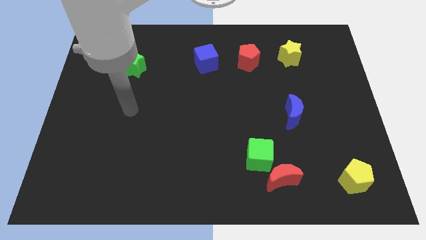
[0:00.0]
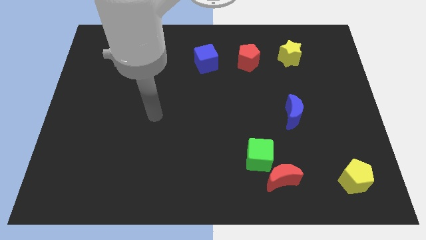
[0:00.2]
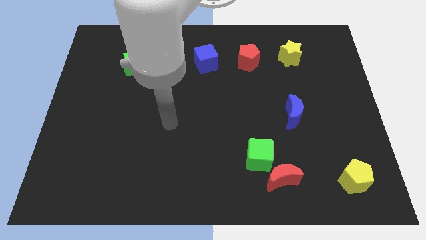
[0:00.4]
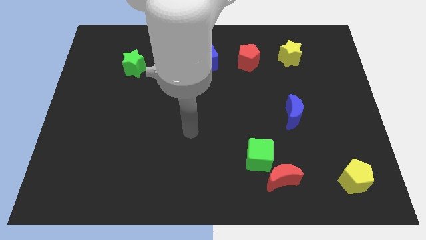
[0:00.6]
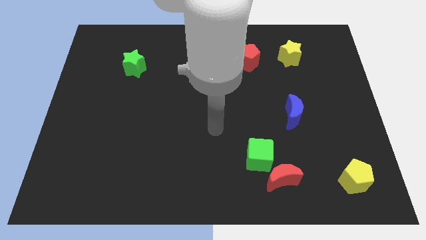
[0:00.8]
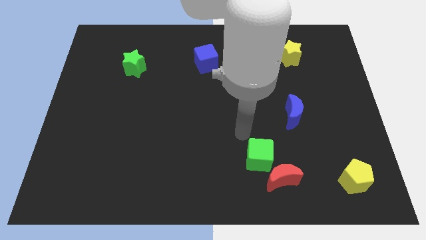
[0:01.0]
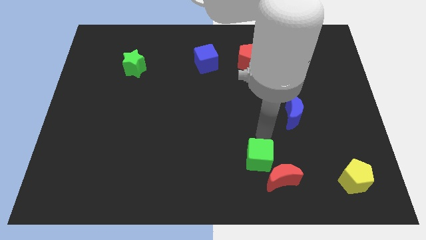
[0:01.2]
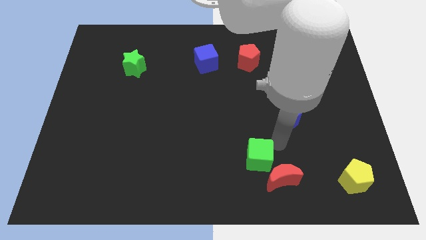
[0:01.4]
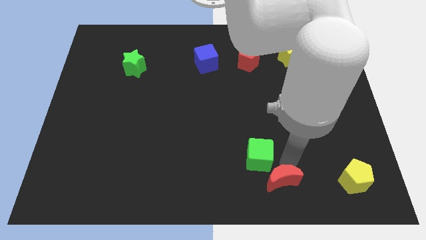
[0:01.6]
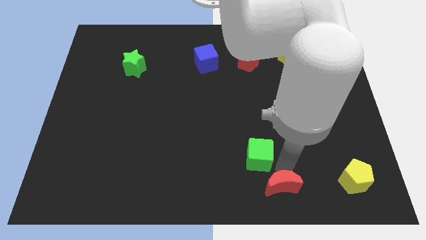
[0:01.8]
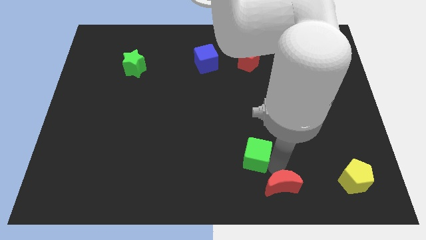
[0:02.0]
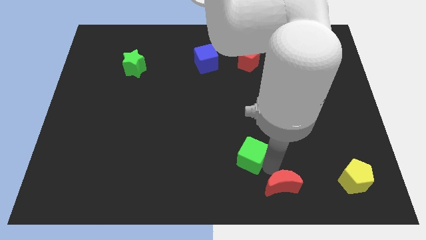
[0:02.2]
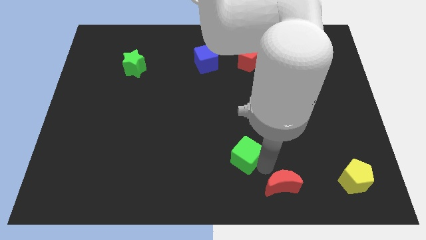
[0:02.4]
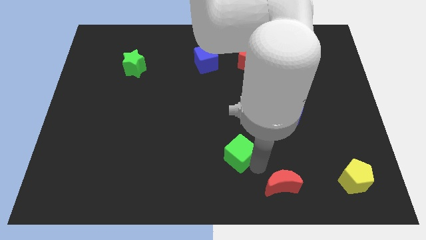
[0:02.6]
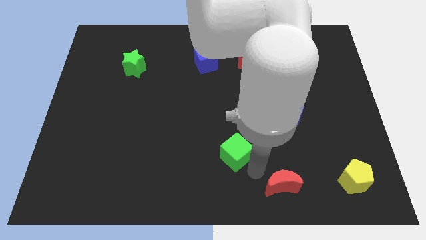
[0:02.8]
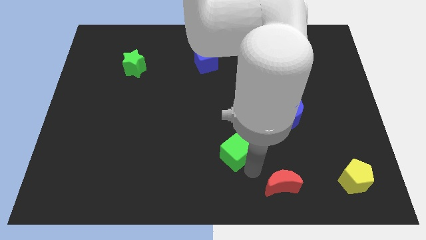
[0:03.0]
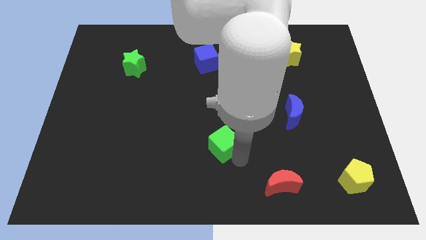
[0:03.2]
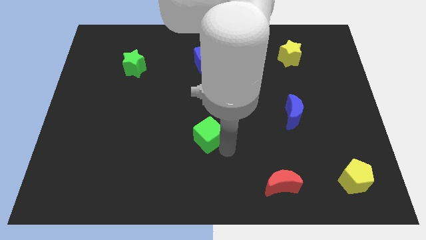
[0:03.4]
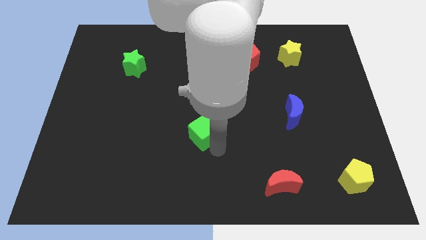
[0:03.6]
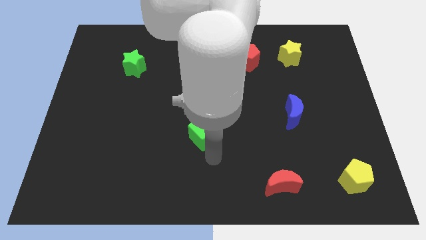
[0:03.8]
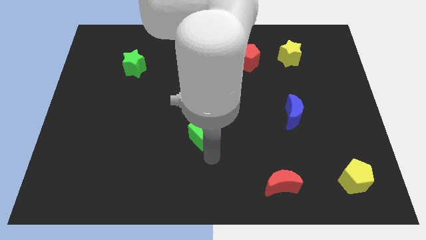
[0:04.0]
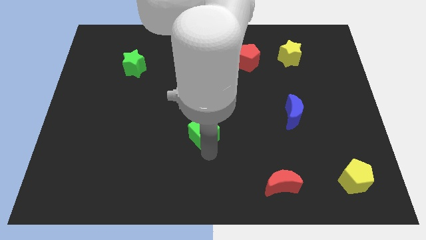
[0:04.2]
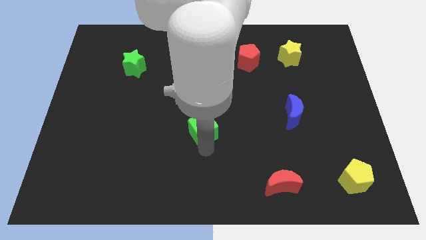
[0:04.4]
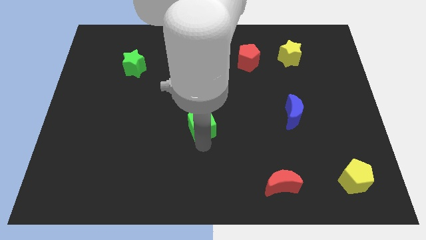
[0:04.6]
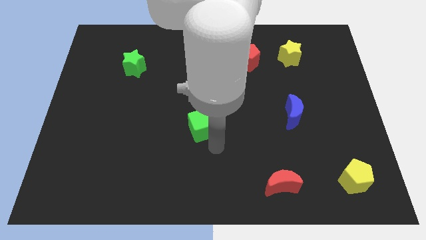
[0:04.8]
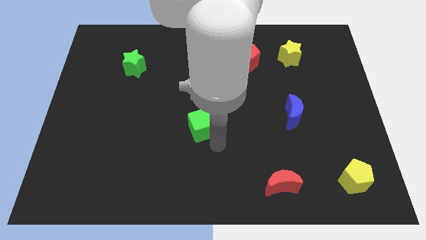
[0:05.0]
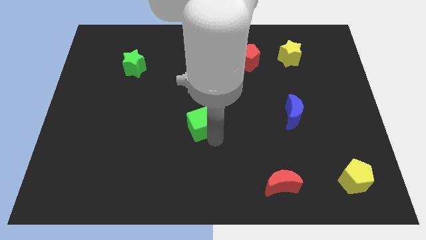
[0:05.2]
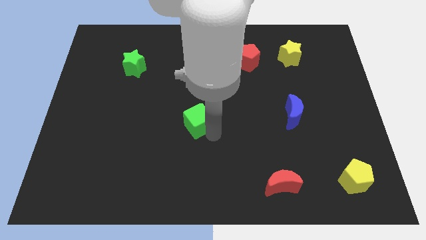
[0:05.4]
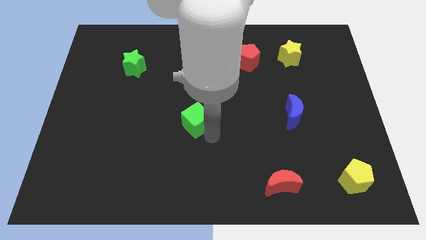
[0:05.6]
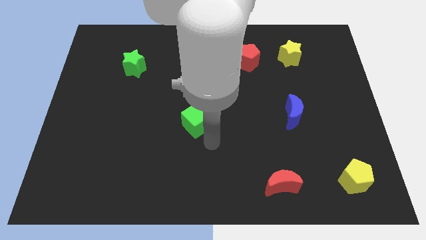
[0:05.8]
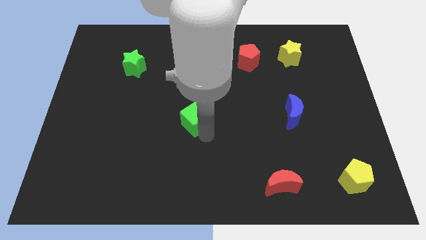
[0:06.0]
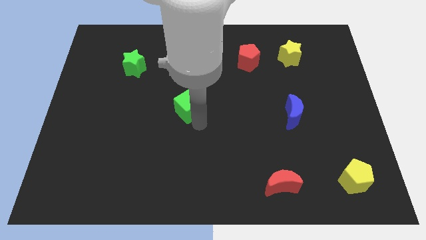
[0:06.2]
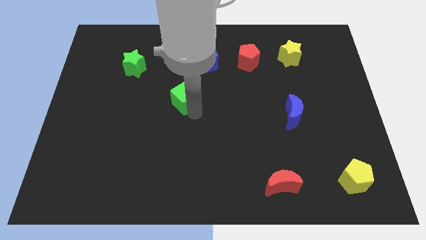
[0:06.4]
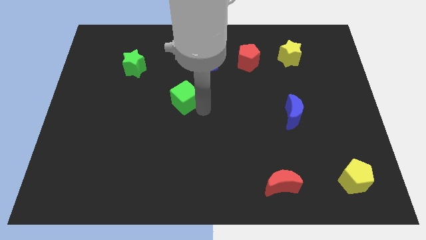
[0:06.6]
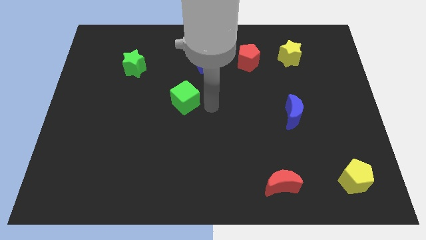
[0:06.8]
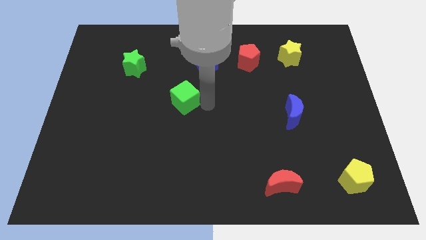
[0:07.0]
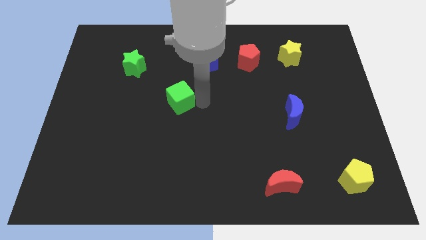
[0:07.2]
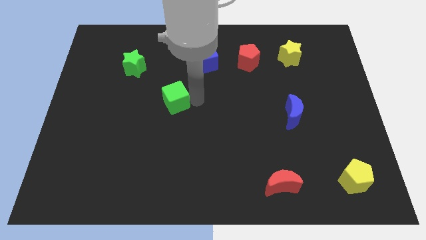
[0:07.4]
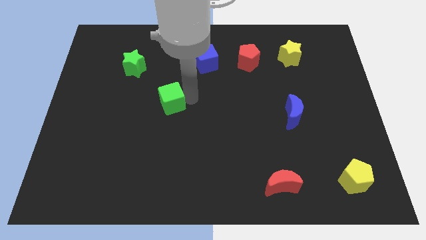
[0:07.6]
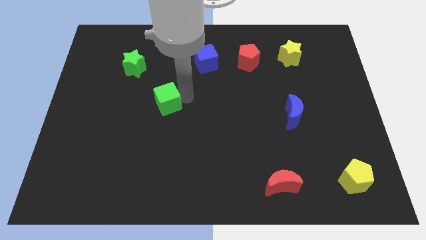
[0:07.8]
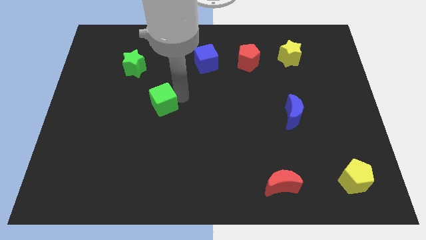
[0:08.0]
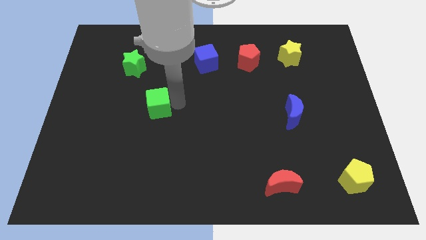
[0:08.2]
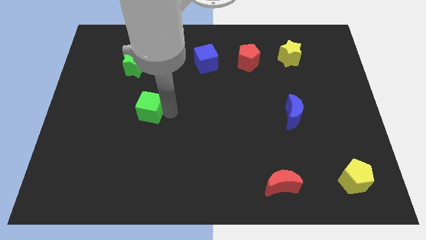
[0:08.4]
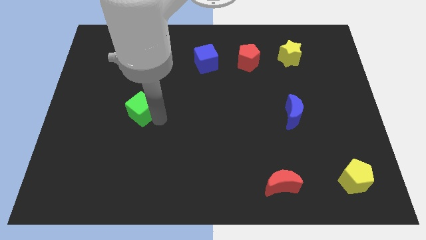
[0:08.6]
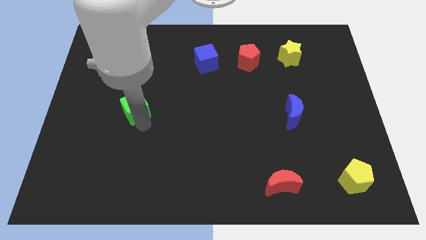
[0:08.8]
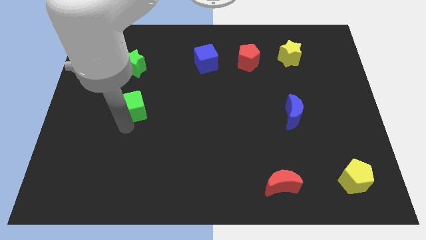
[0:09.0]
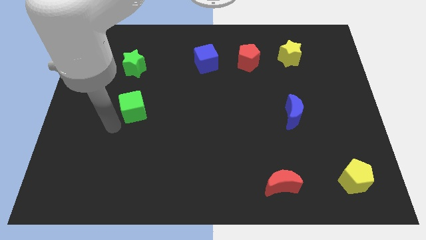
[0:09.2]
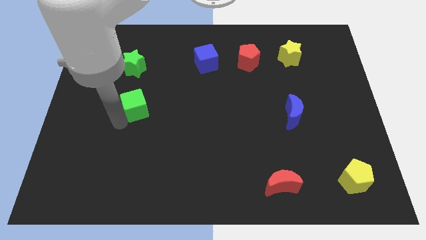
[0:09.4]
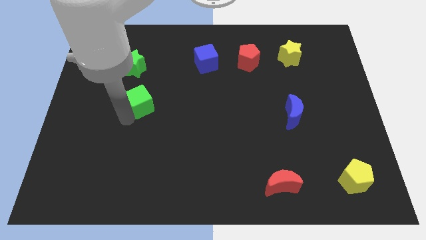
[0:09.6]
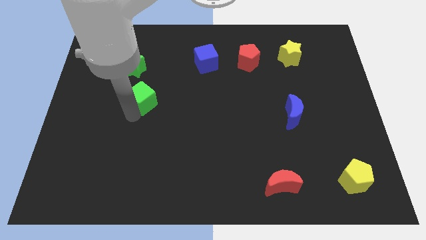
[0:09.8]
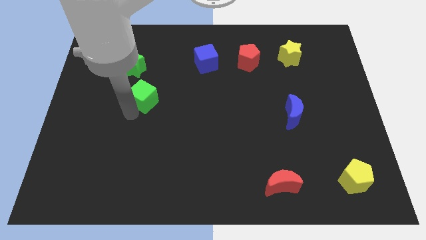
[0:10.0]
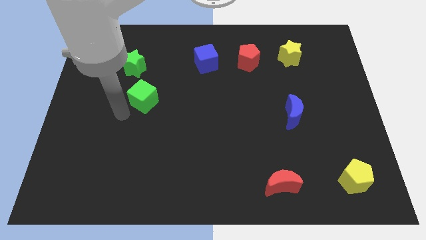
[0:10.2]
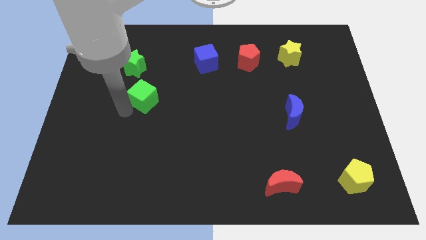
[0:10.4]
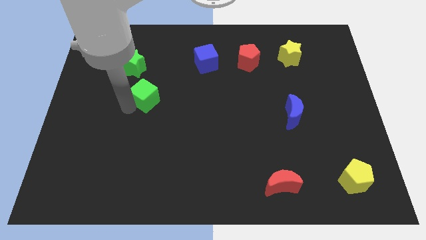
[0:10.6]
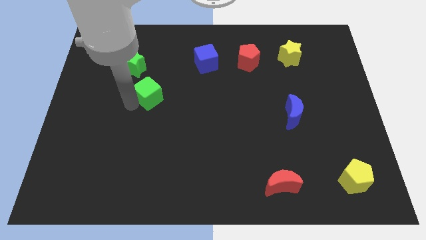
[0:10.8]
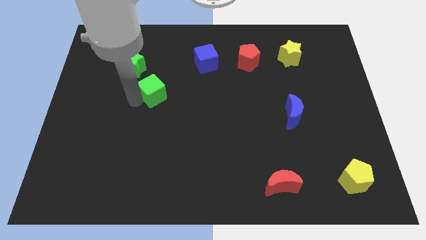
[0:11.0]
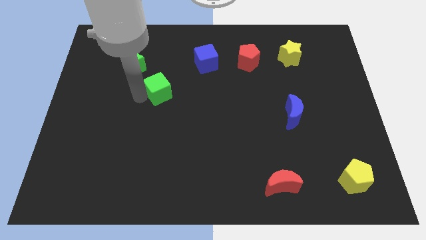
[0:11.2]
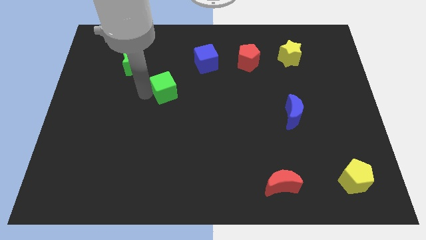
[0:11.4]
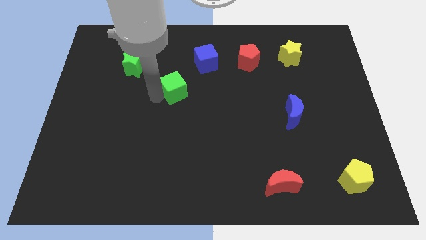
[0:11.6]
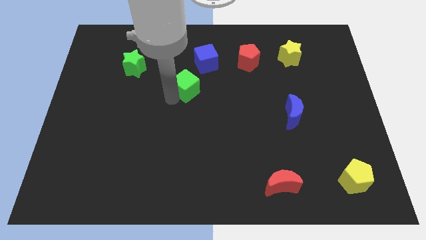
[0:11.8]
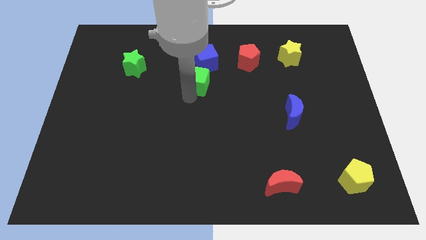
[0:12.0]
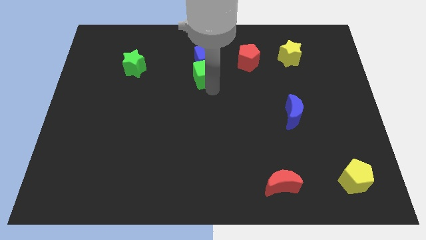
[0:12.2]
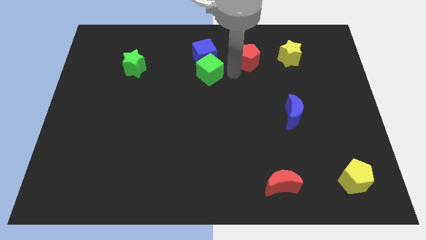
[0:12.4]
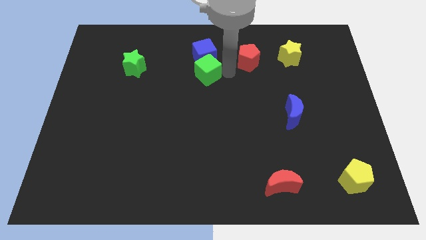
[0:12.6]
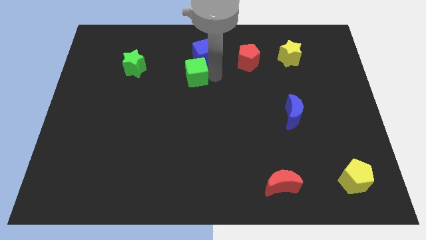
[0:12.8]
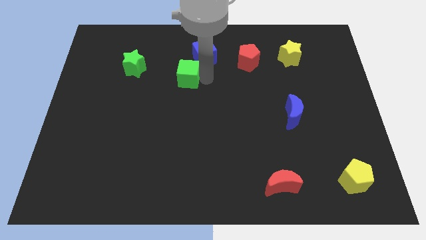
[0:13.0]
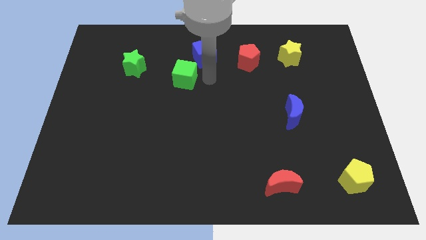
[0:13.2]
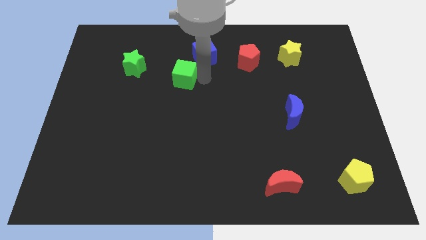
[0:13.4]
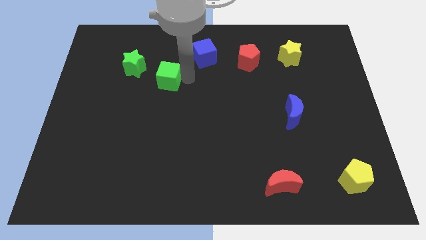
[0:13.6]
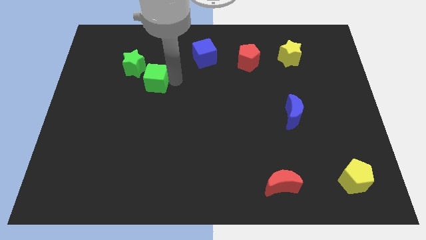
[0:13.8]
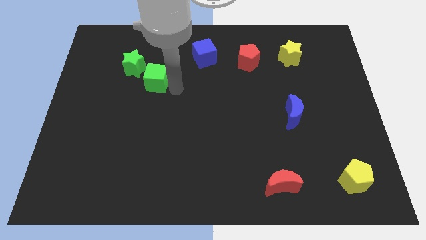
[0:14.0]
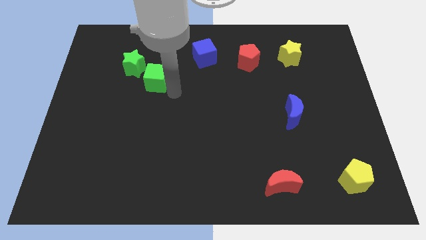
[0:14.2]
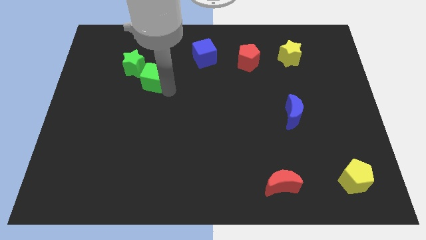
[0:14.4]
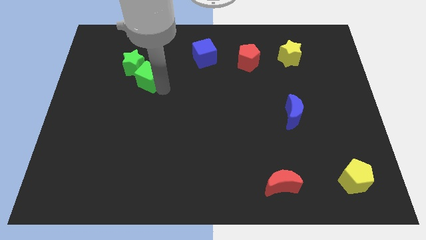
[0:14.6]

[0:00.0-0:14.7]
slide the green cube towards the green star
